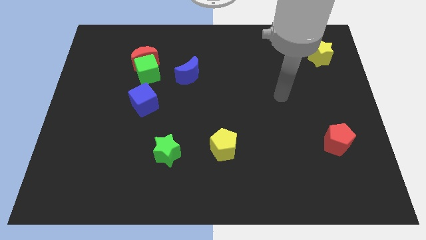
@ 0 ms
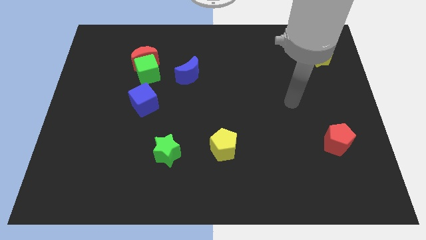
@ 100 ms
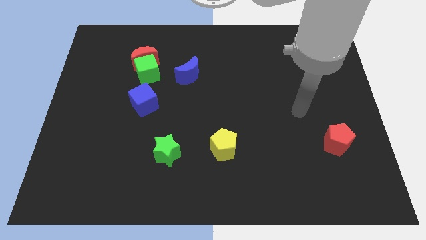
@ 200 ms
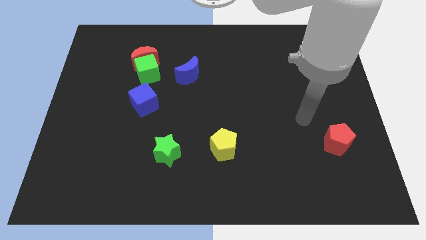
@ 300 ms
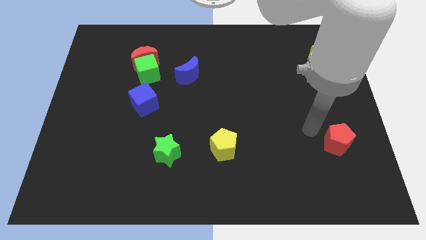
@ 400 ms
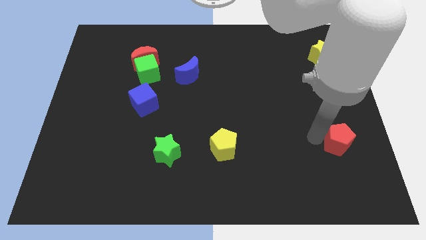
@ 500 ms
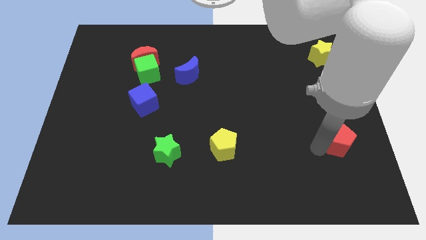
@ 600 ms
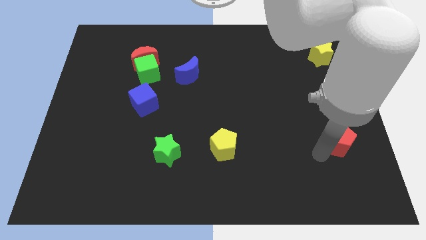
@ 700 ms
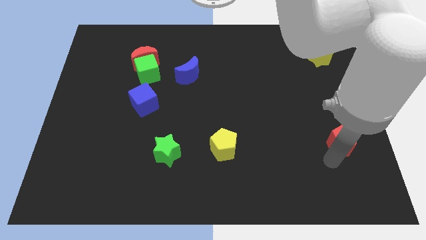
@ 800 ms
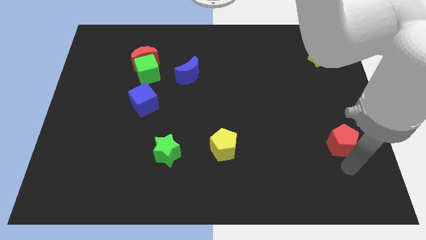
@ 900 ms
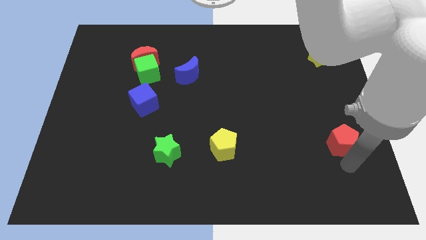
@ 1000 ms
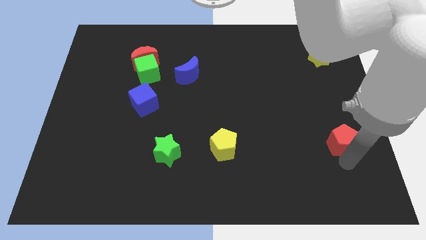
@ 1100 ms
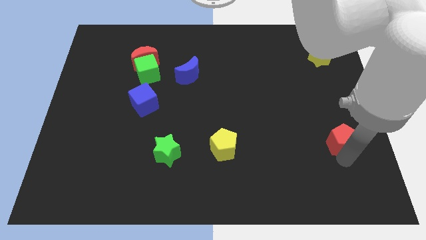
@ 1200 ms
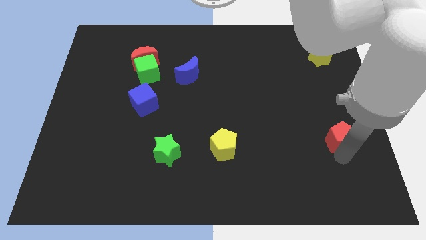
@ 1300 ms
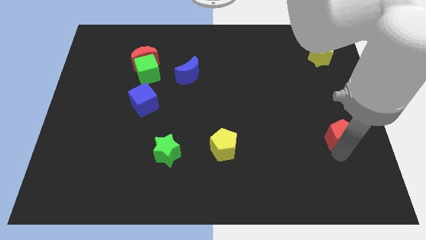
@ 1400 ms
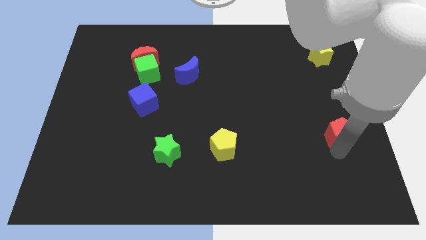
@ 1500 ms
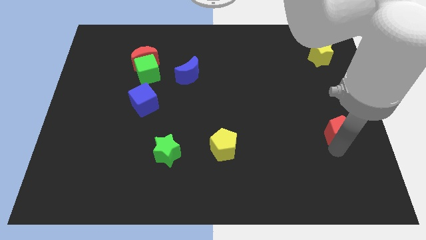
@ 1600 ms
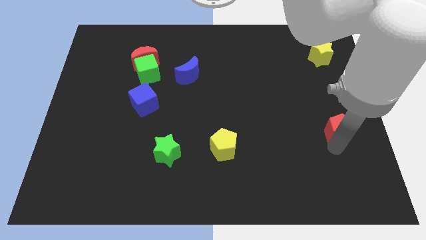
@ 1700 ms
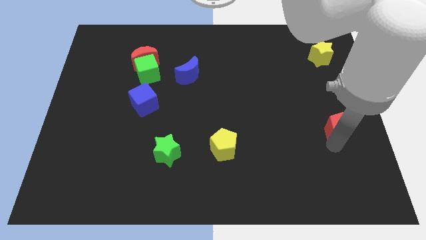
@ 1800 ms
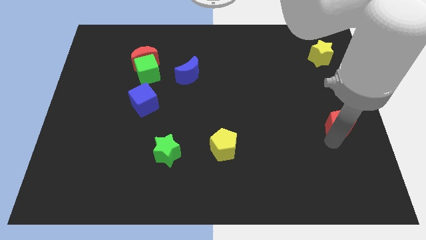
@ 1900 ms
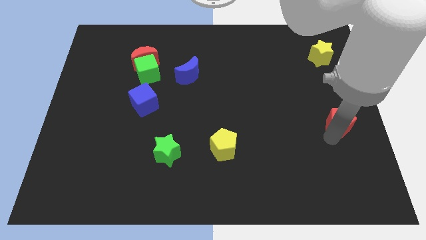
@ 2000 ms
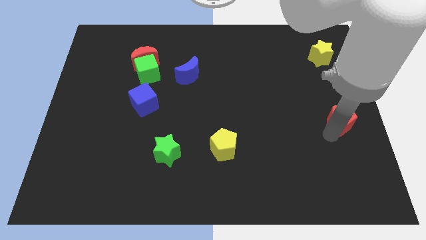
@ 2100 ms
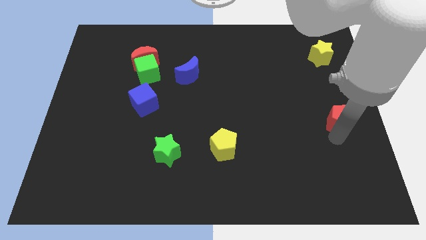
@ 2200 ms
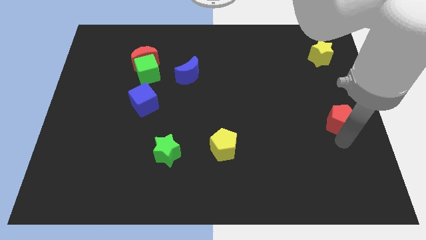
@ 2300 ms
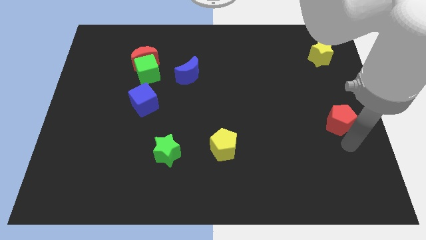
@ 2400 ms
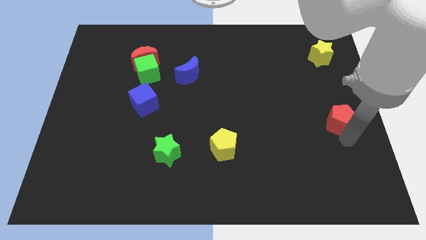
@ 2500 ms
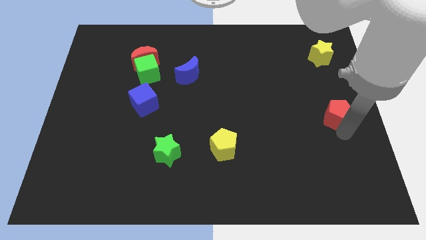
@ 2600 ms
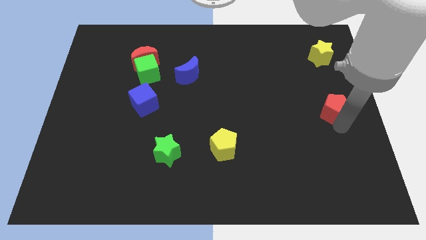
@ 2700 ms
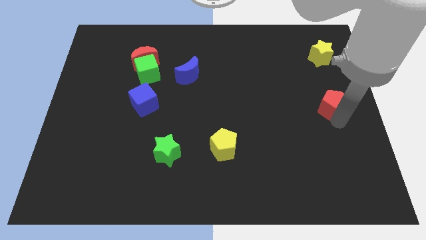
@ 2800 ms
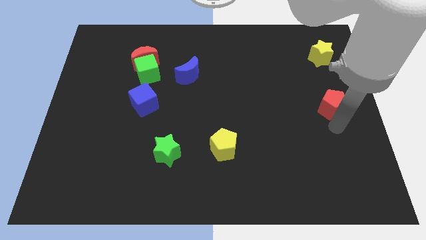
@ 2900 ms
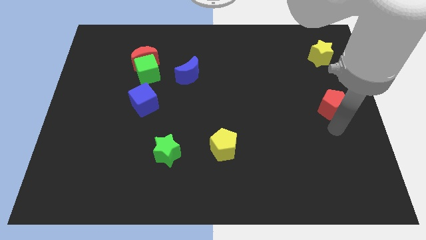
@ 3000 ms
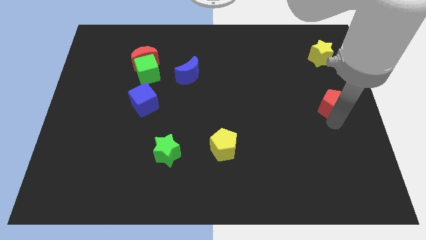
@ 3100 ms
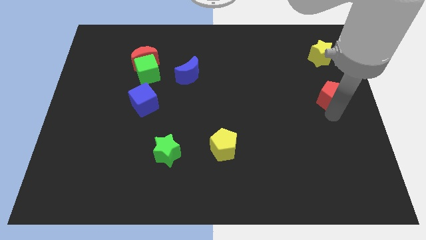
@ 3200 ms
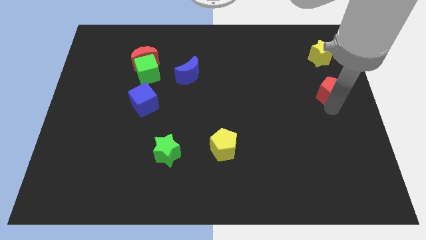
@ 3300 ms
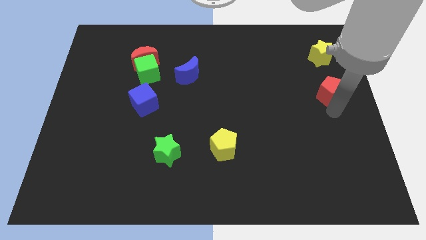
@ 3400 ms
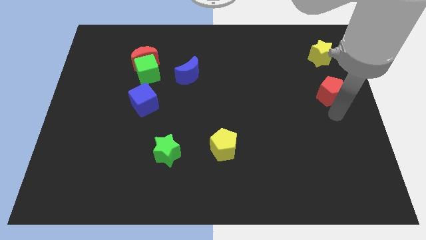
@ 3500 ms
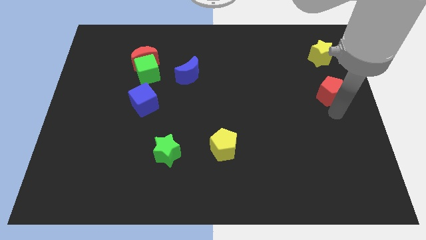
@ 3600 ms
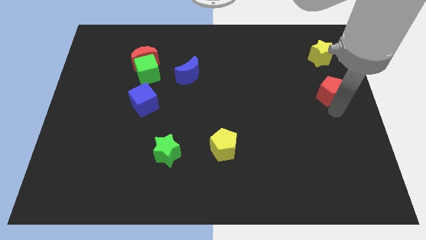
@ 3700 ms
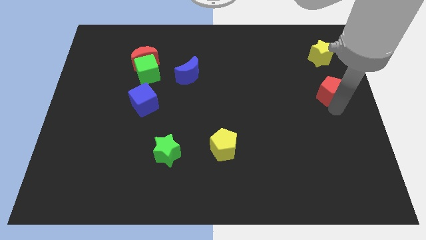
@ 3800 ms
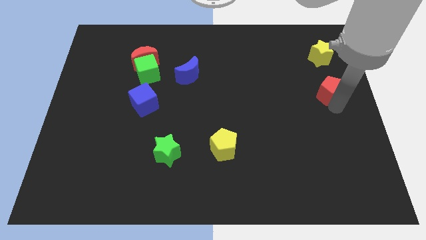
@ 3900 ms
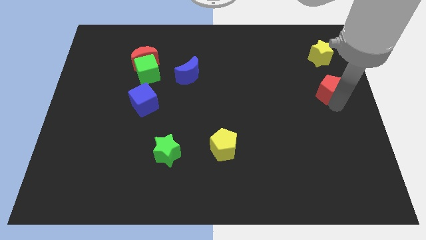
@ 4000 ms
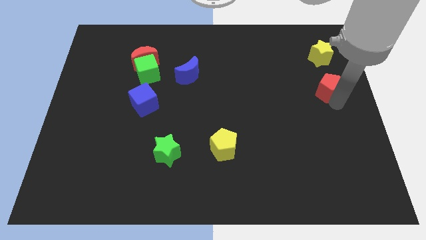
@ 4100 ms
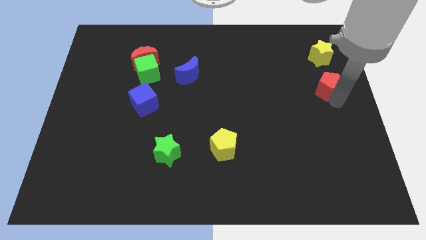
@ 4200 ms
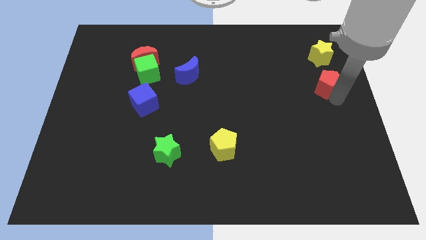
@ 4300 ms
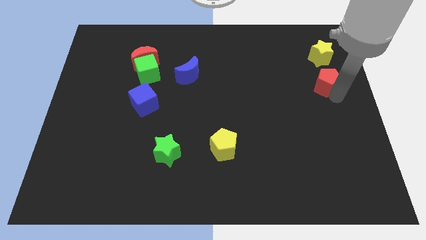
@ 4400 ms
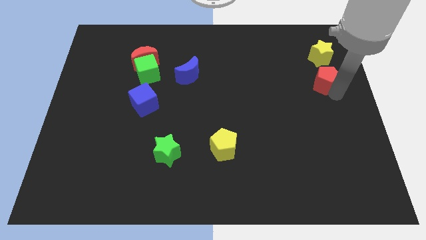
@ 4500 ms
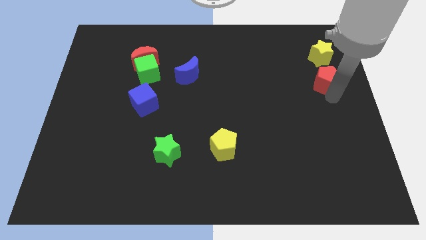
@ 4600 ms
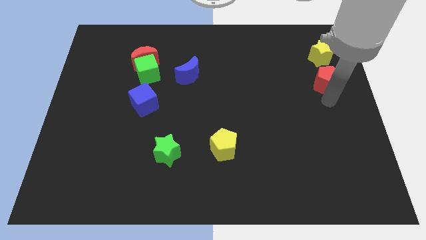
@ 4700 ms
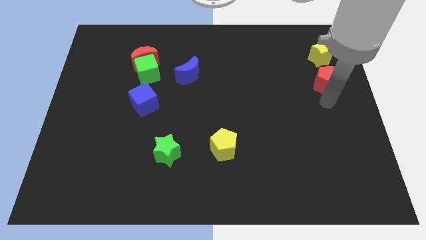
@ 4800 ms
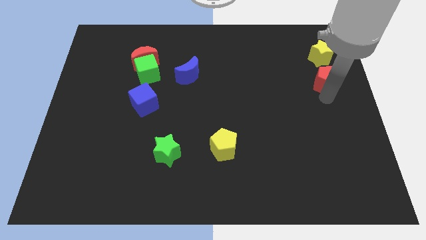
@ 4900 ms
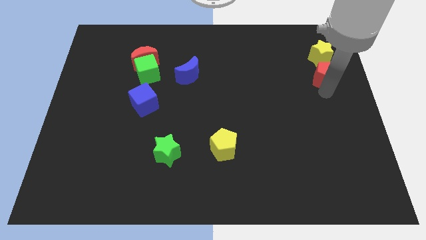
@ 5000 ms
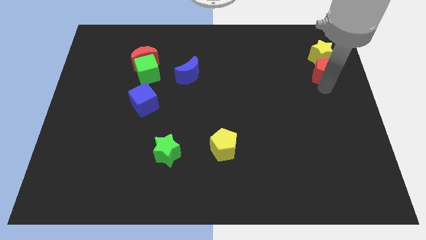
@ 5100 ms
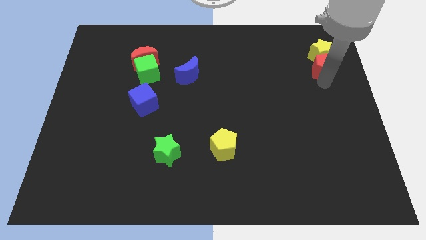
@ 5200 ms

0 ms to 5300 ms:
move the red pentagon towards the yellow star

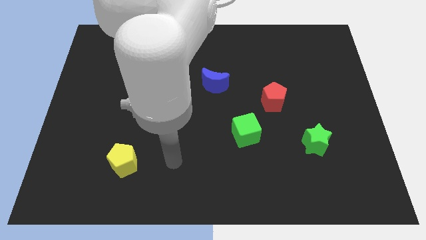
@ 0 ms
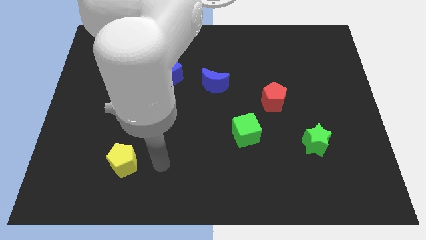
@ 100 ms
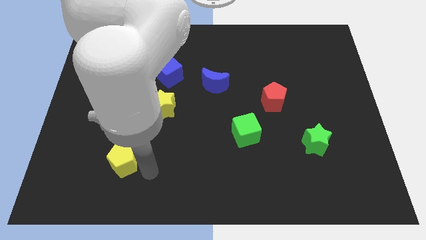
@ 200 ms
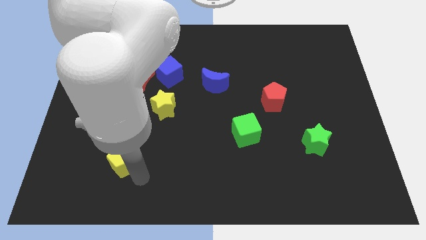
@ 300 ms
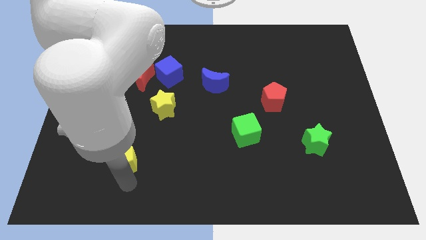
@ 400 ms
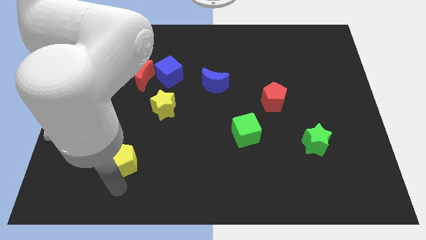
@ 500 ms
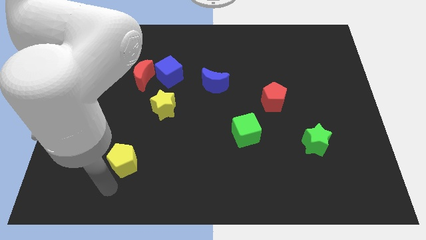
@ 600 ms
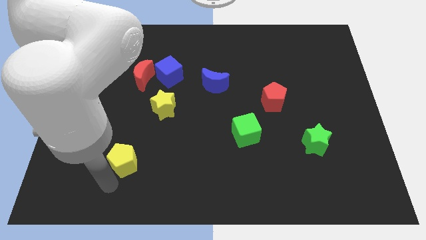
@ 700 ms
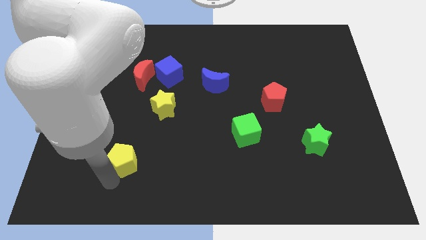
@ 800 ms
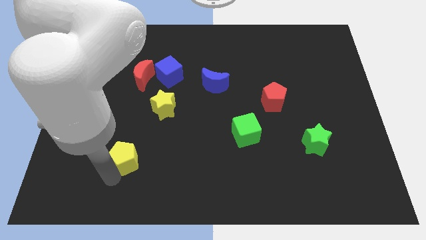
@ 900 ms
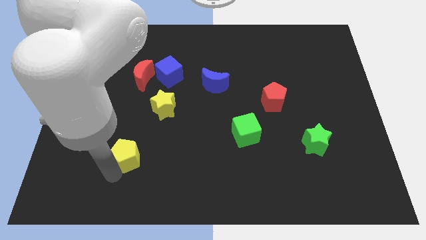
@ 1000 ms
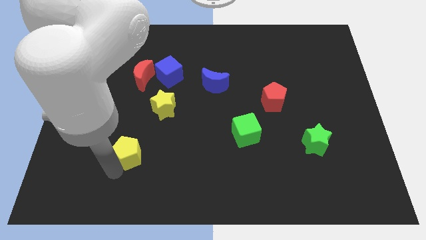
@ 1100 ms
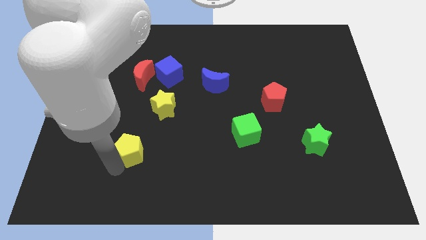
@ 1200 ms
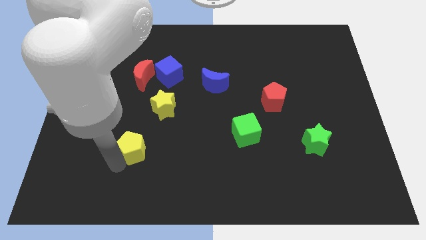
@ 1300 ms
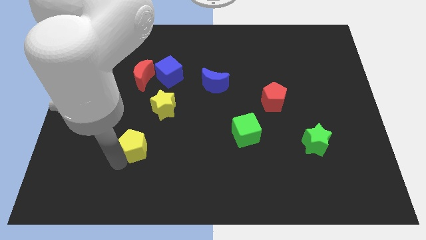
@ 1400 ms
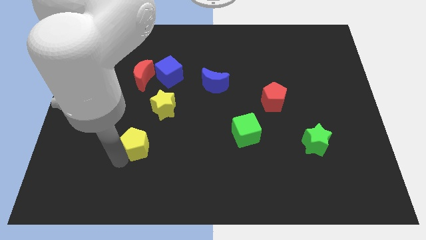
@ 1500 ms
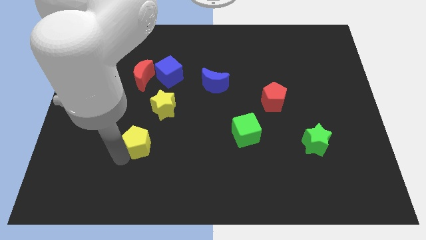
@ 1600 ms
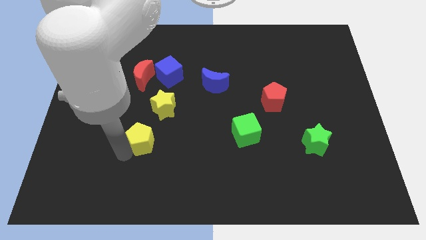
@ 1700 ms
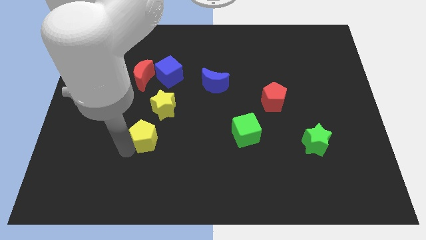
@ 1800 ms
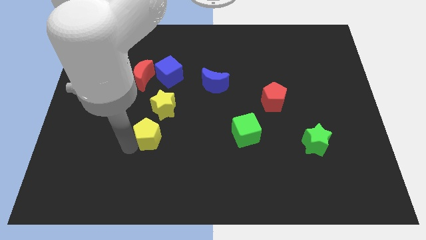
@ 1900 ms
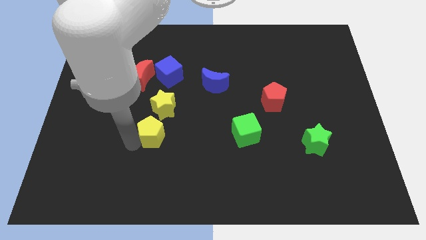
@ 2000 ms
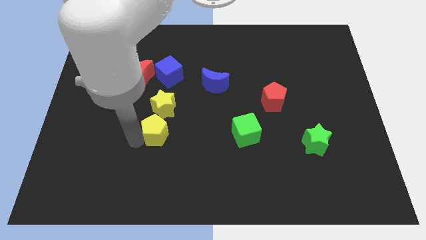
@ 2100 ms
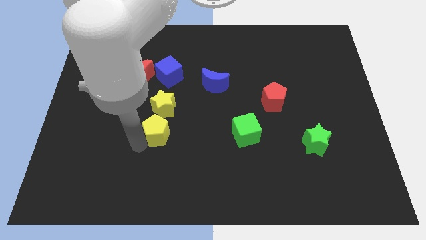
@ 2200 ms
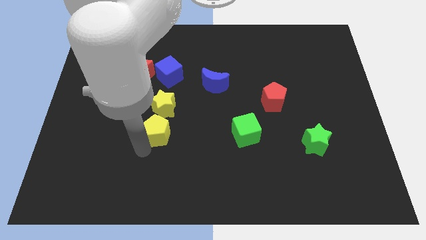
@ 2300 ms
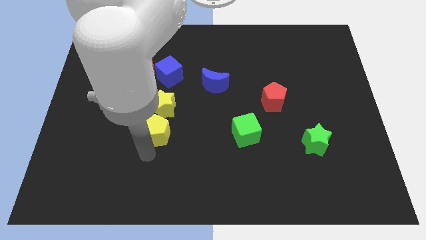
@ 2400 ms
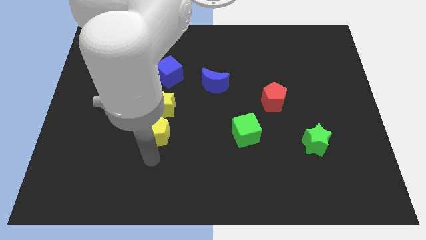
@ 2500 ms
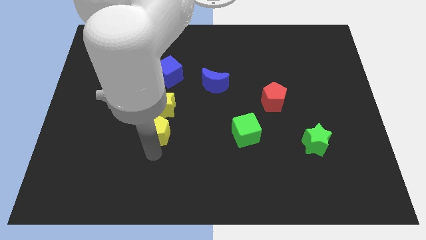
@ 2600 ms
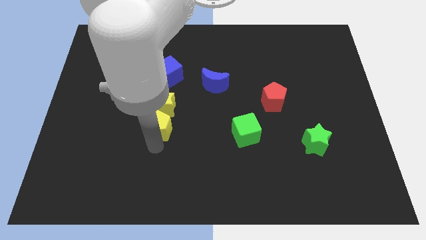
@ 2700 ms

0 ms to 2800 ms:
move the yellow pentagon to the yellow star
